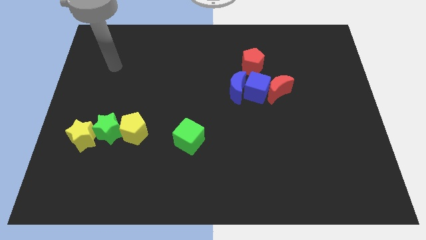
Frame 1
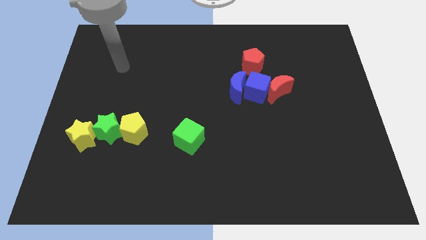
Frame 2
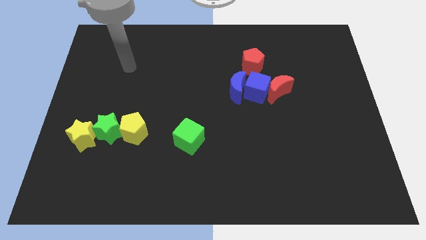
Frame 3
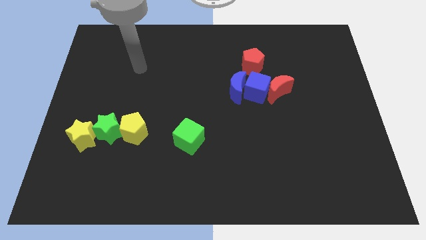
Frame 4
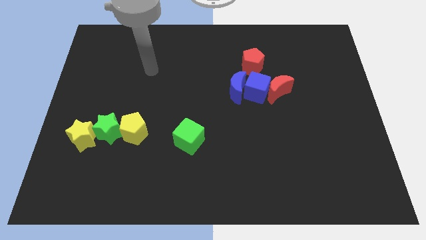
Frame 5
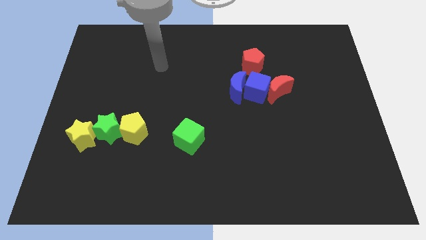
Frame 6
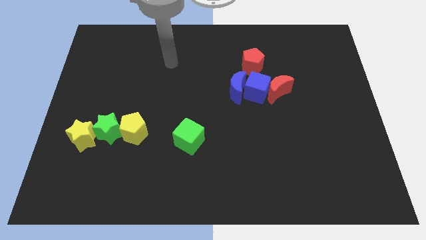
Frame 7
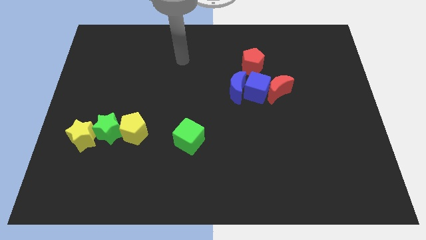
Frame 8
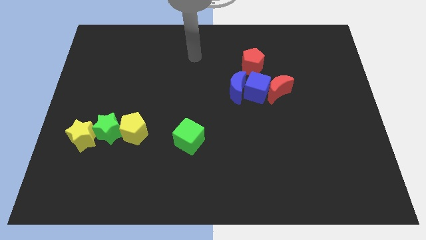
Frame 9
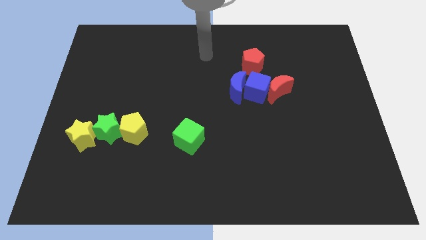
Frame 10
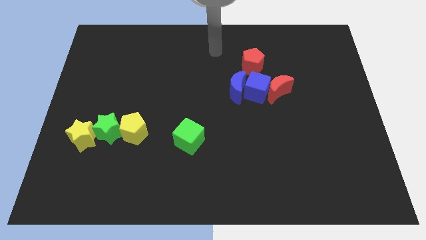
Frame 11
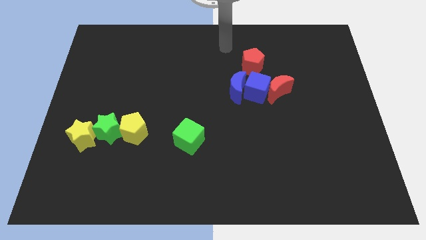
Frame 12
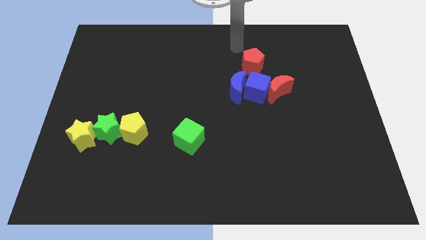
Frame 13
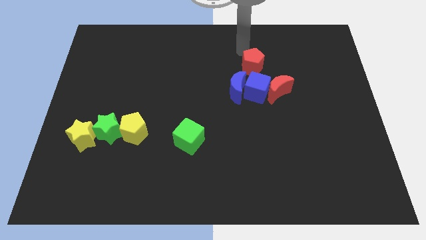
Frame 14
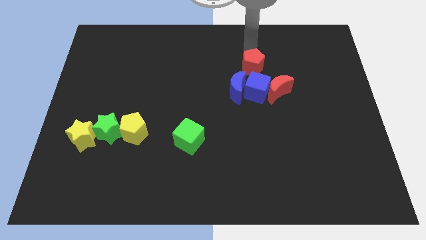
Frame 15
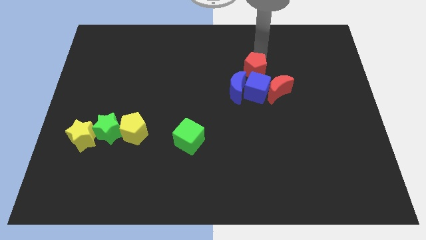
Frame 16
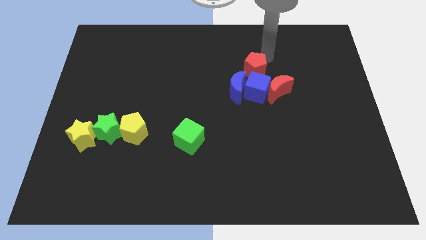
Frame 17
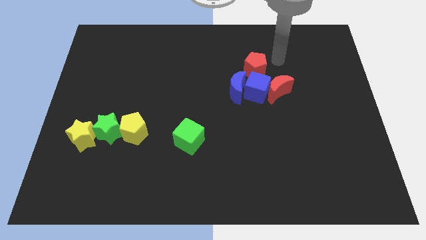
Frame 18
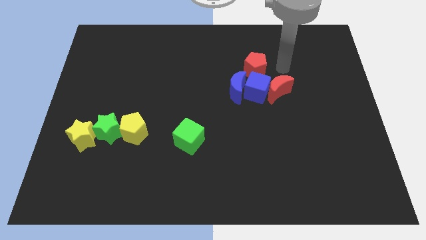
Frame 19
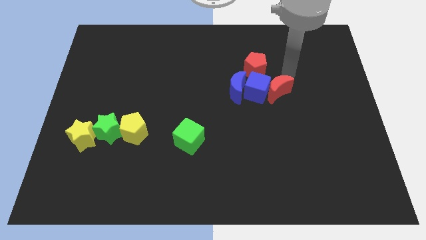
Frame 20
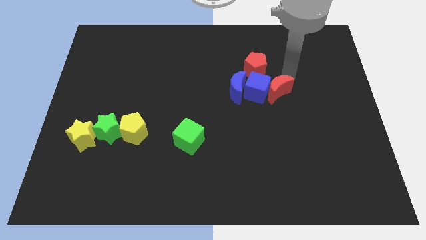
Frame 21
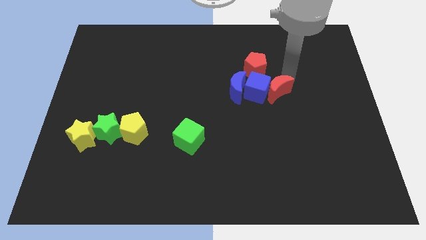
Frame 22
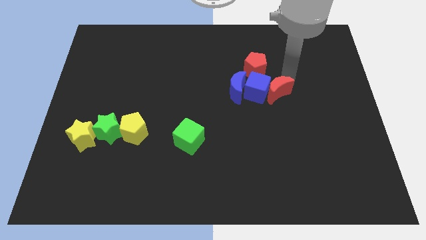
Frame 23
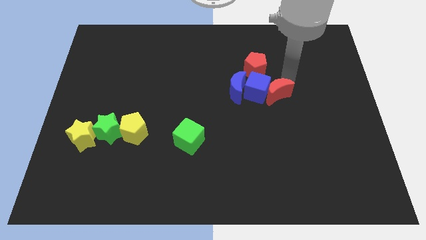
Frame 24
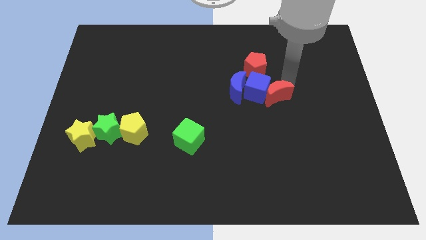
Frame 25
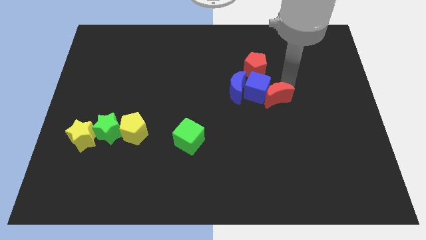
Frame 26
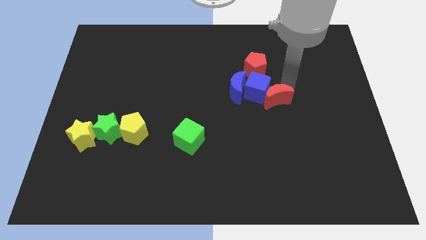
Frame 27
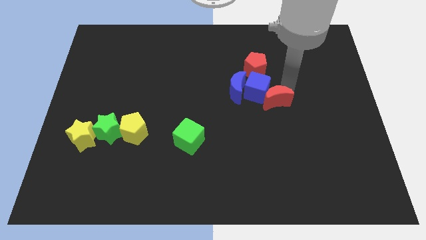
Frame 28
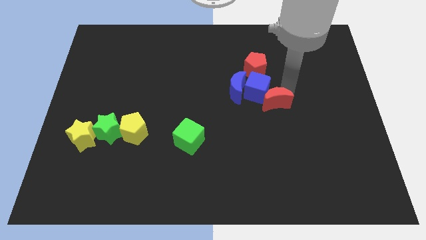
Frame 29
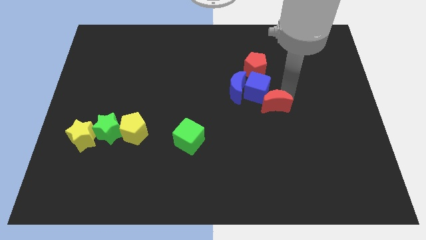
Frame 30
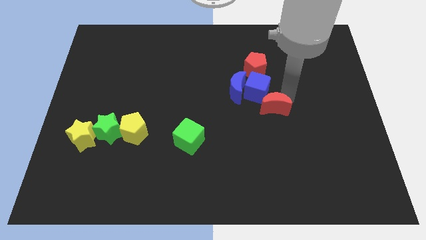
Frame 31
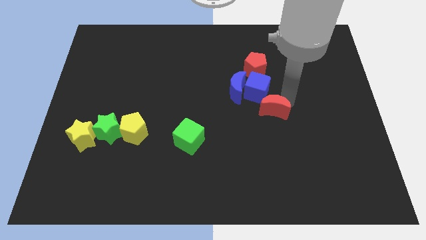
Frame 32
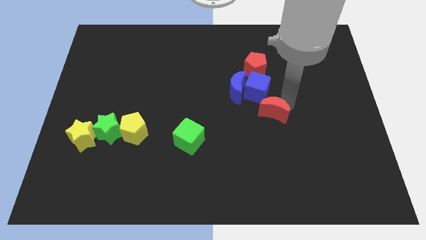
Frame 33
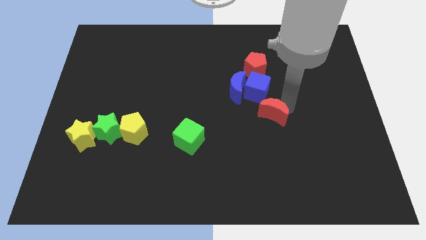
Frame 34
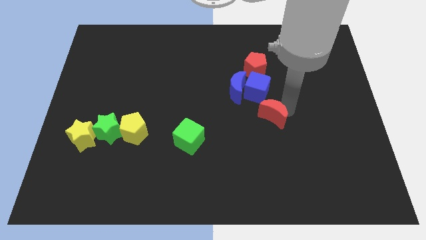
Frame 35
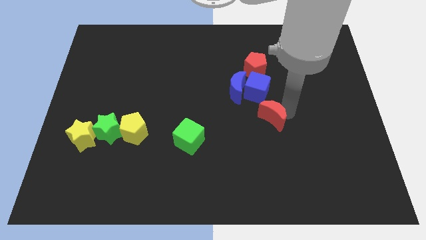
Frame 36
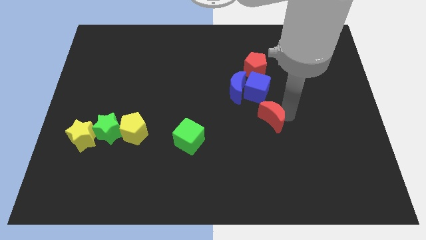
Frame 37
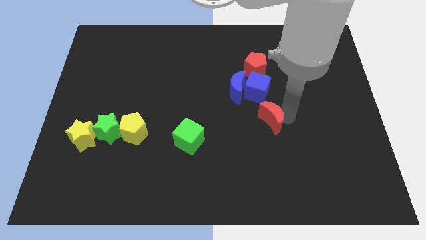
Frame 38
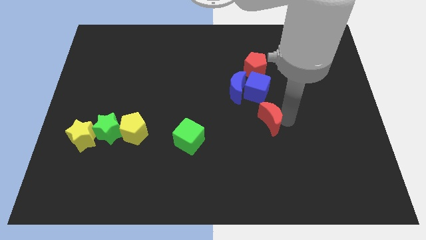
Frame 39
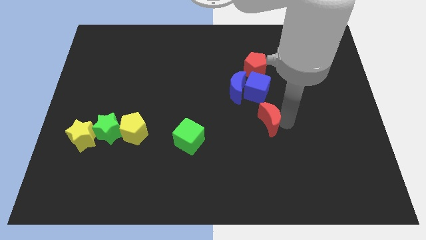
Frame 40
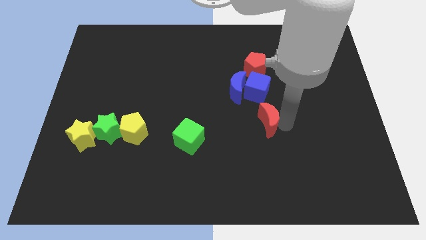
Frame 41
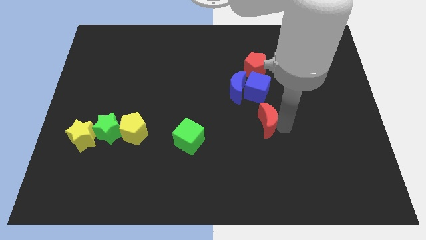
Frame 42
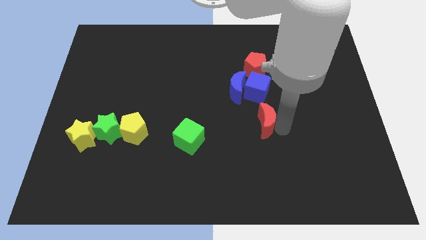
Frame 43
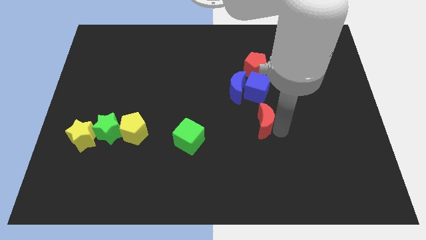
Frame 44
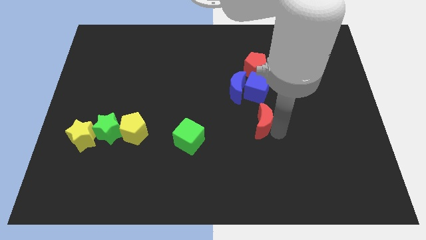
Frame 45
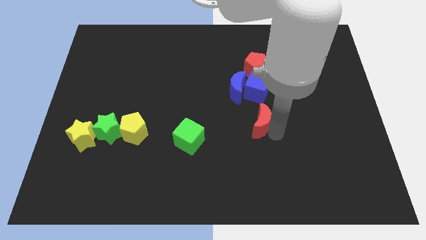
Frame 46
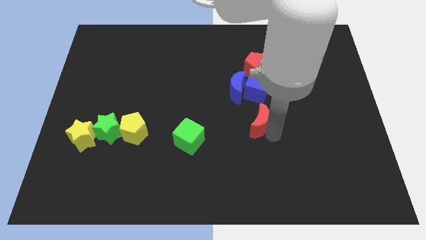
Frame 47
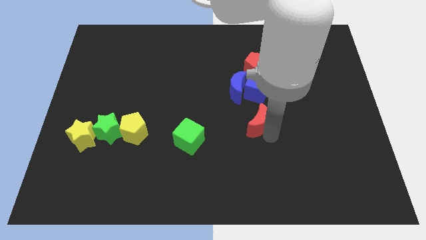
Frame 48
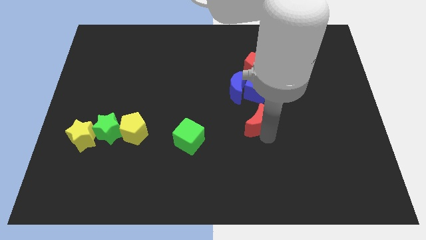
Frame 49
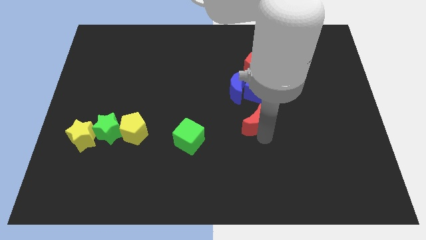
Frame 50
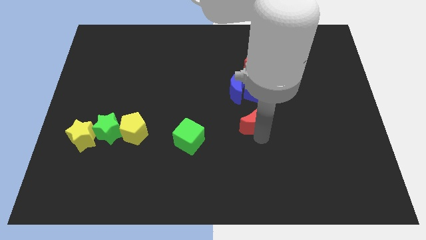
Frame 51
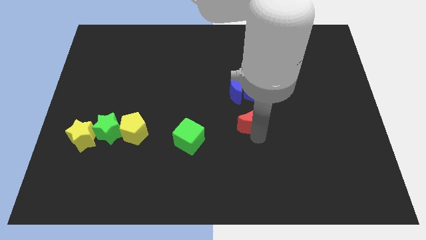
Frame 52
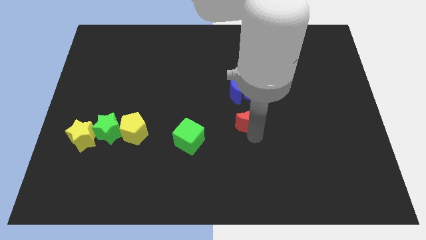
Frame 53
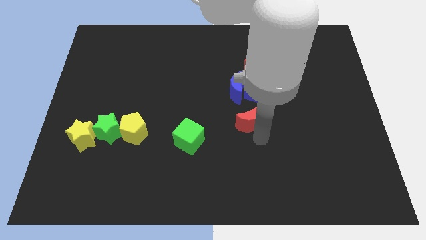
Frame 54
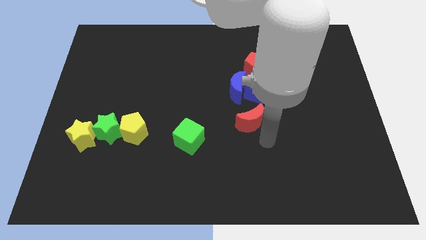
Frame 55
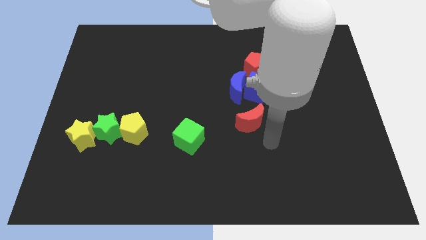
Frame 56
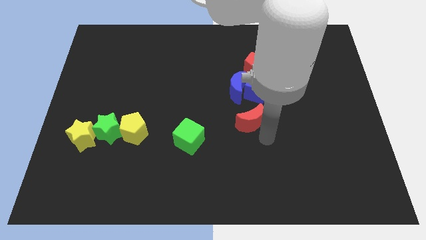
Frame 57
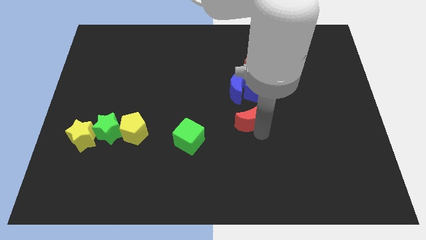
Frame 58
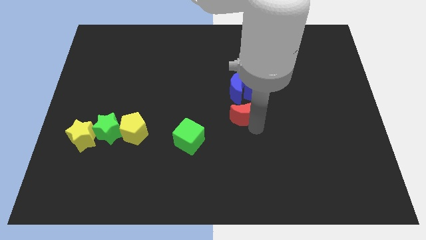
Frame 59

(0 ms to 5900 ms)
put the red moon diagonally down and to the left of the blue cube

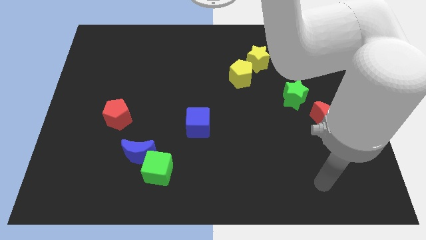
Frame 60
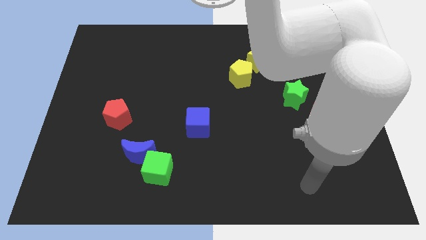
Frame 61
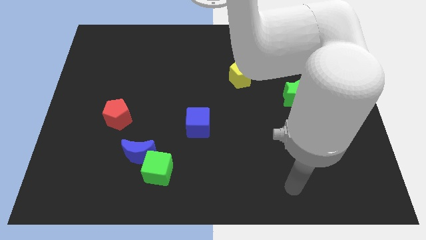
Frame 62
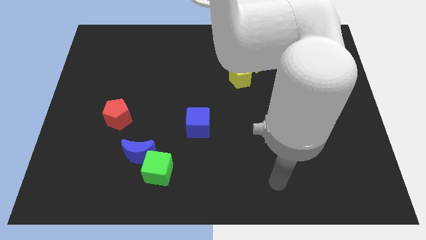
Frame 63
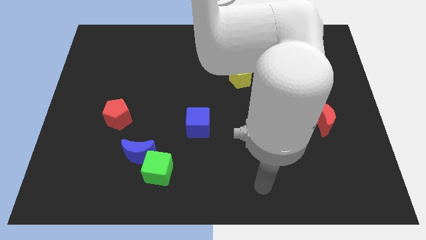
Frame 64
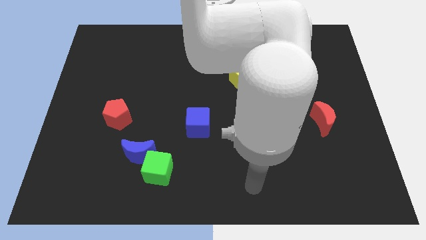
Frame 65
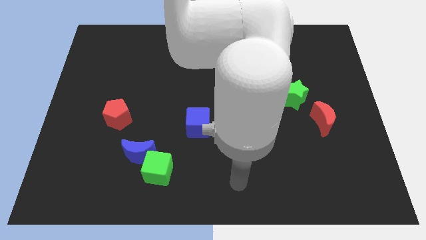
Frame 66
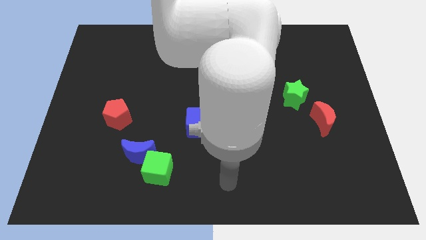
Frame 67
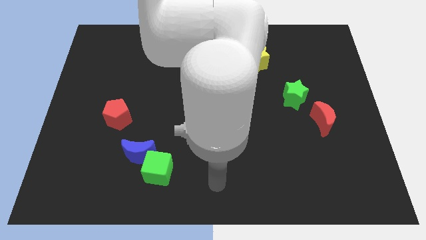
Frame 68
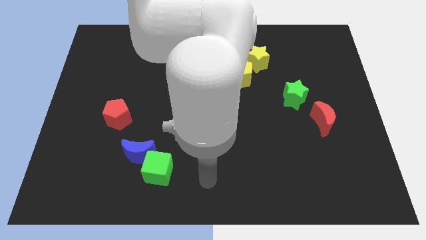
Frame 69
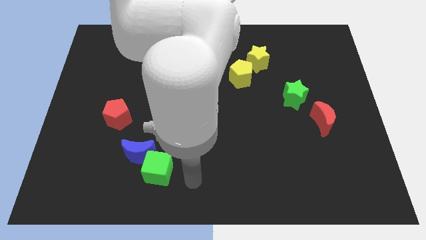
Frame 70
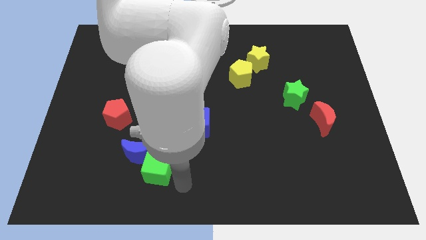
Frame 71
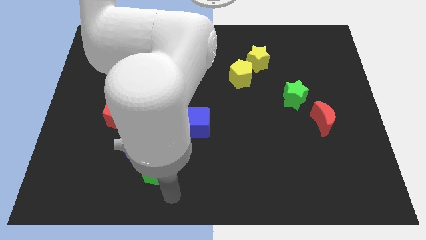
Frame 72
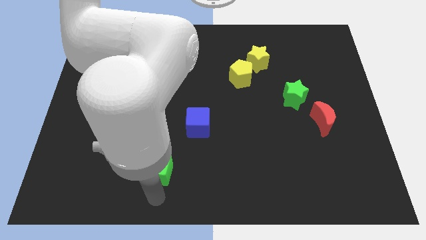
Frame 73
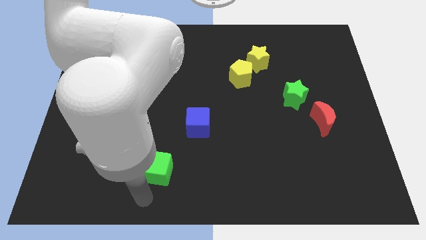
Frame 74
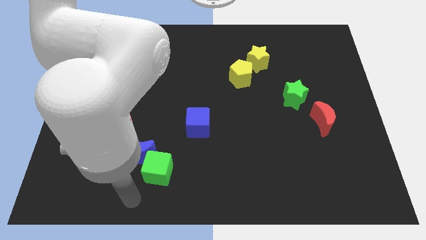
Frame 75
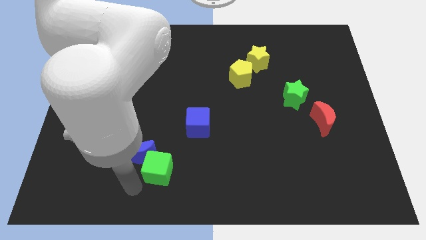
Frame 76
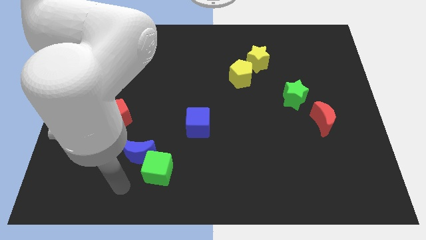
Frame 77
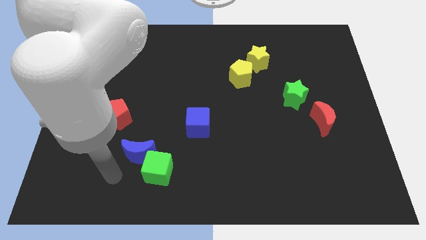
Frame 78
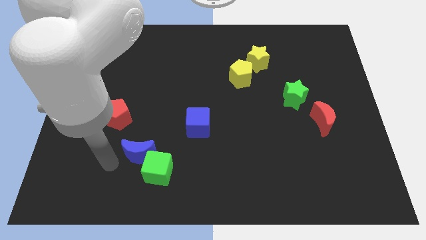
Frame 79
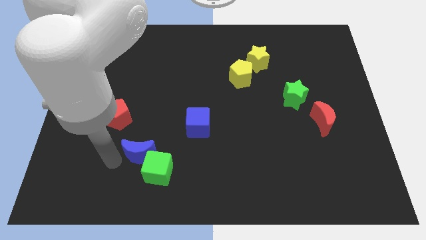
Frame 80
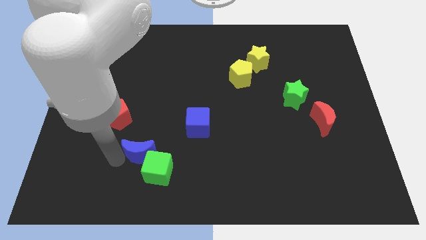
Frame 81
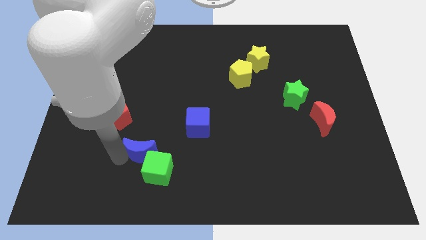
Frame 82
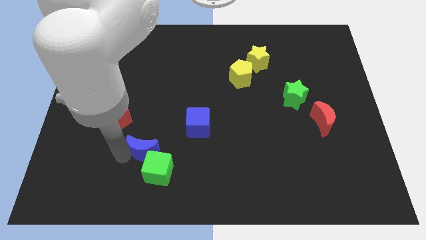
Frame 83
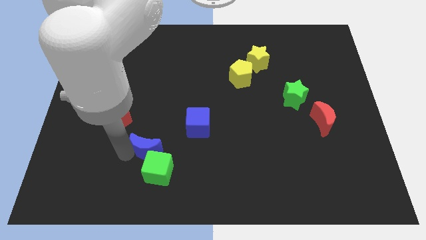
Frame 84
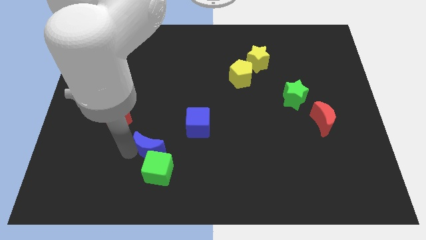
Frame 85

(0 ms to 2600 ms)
put the blue moon diagonally down and to the left of the blue cube
